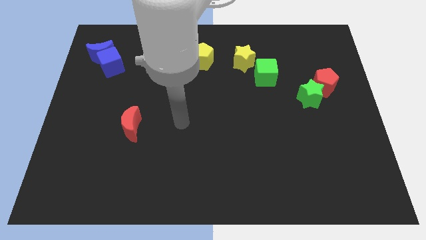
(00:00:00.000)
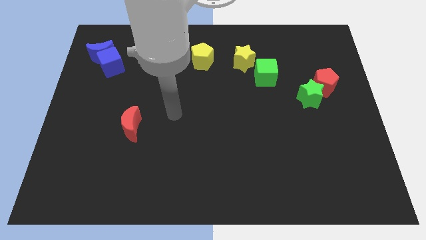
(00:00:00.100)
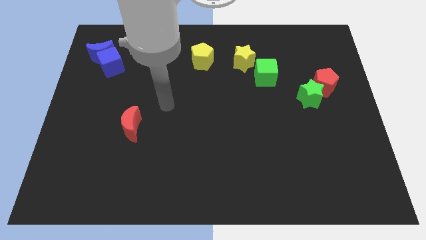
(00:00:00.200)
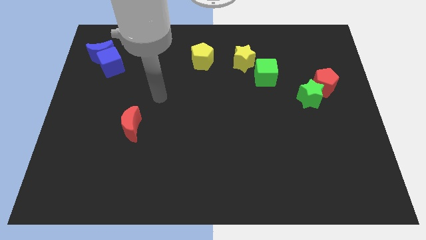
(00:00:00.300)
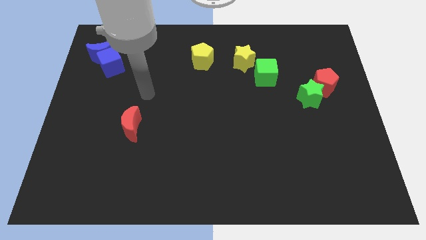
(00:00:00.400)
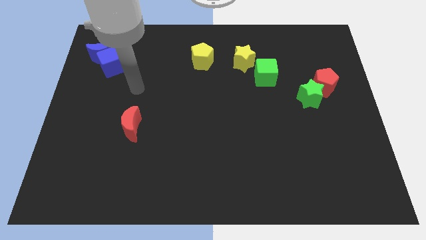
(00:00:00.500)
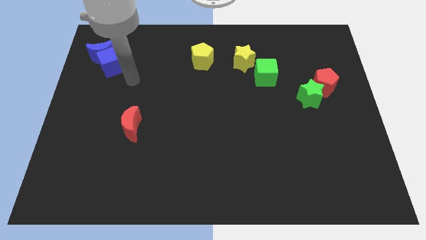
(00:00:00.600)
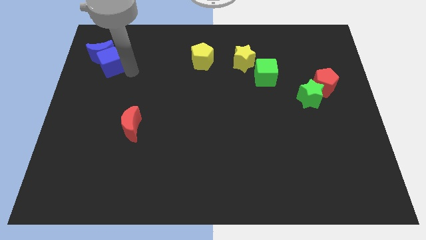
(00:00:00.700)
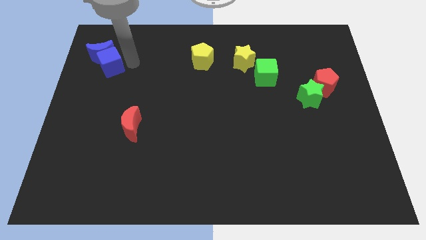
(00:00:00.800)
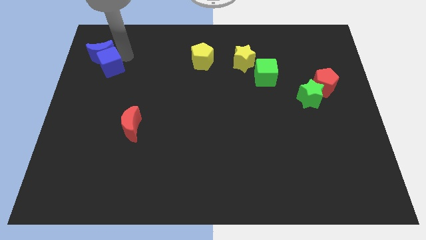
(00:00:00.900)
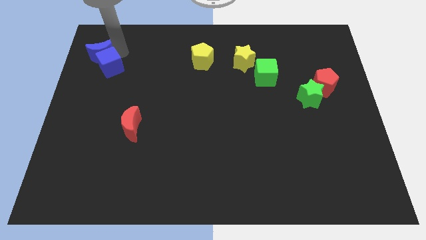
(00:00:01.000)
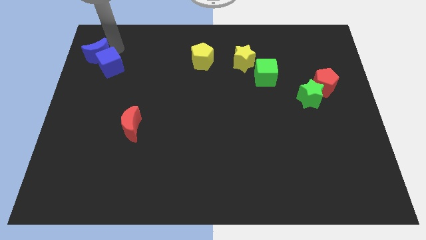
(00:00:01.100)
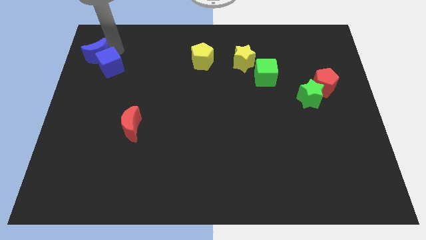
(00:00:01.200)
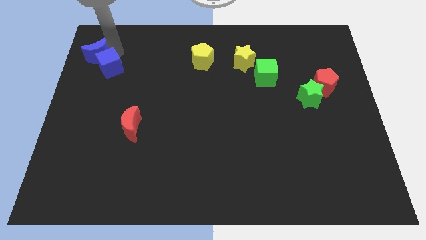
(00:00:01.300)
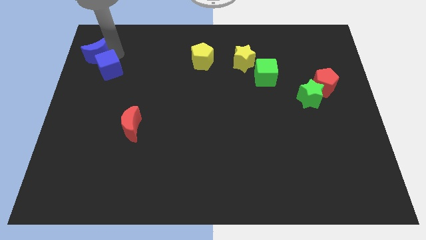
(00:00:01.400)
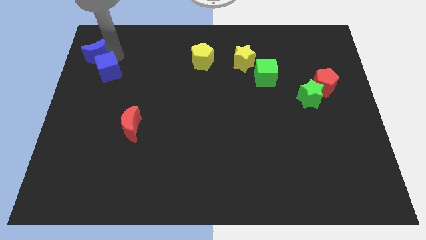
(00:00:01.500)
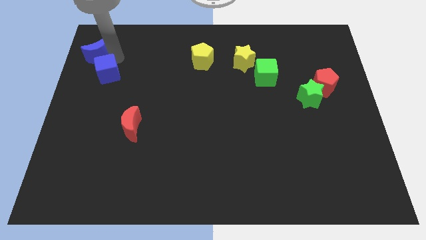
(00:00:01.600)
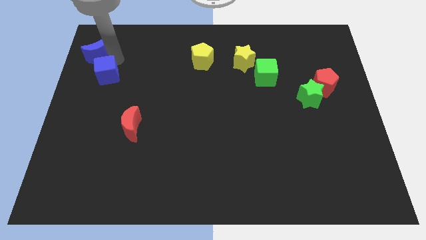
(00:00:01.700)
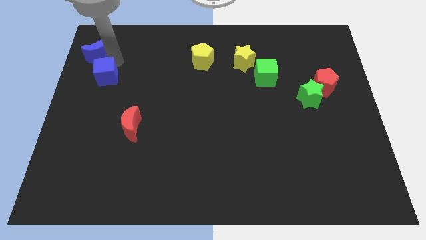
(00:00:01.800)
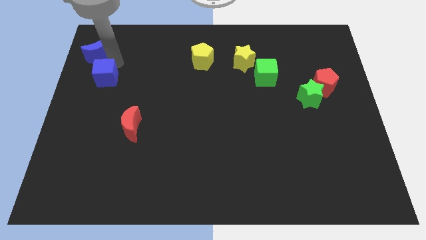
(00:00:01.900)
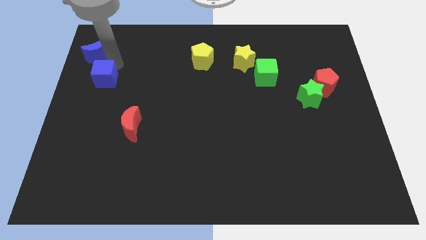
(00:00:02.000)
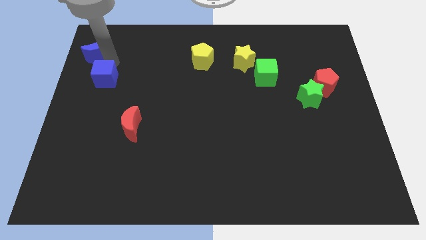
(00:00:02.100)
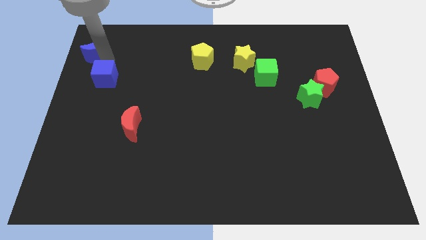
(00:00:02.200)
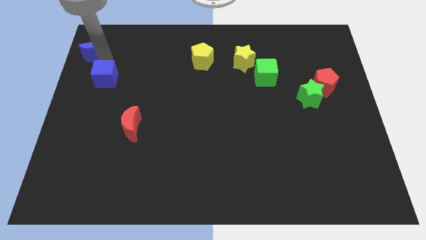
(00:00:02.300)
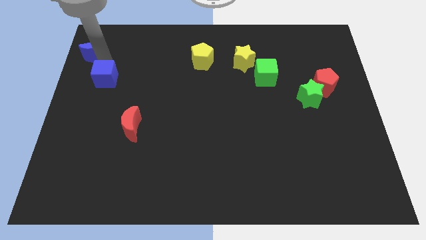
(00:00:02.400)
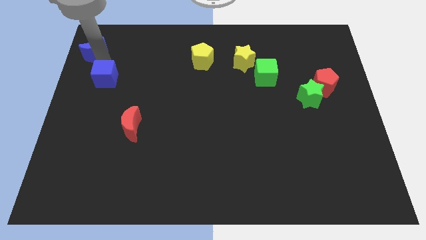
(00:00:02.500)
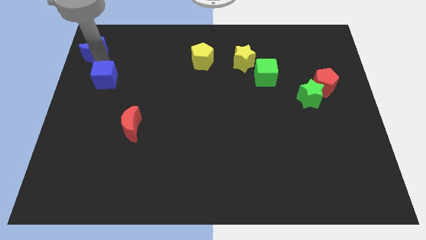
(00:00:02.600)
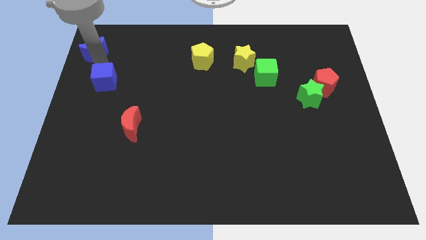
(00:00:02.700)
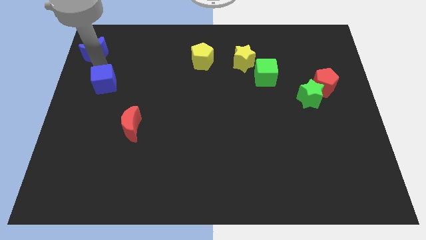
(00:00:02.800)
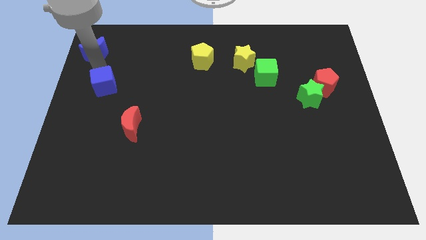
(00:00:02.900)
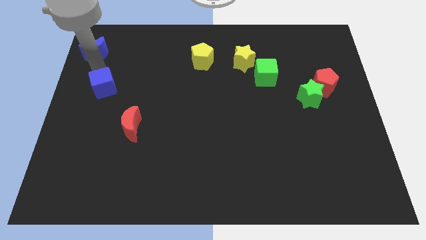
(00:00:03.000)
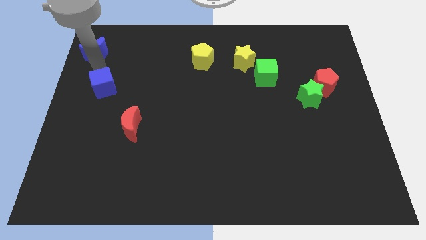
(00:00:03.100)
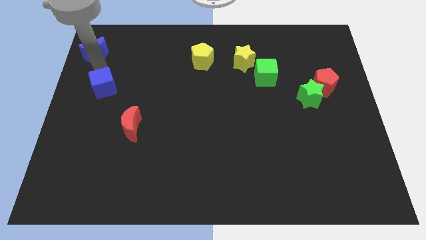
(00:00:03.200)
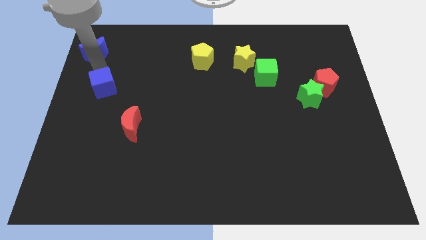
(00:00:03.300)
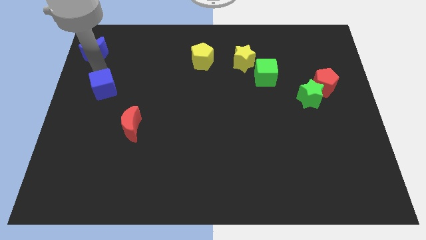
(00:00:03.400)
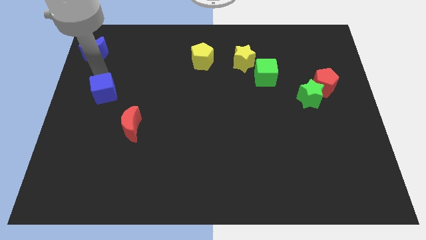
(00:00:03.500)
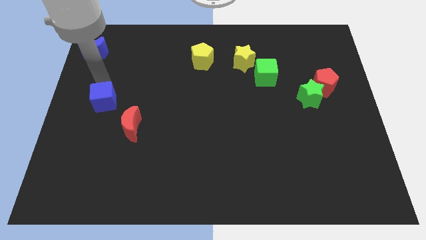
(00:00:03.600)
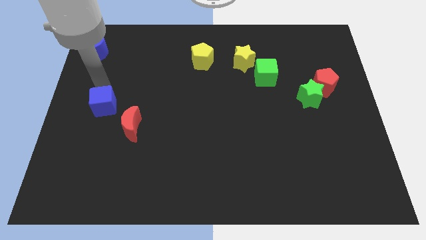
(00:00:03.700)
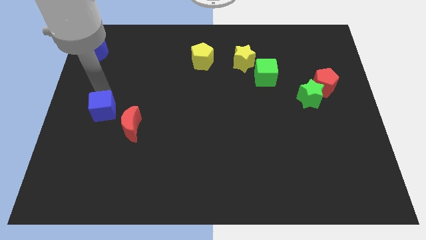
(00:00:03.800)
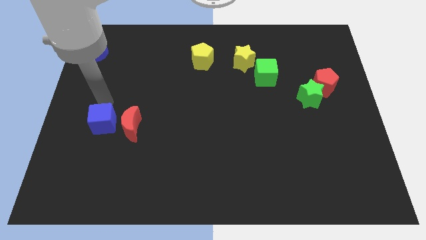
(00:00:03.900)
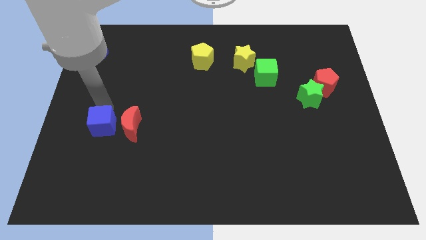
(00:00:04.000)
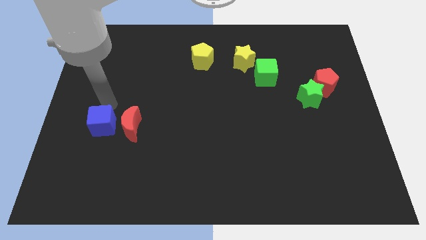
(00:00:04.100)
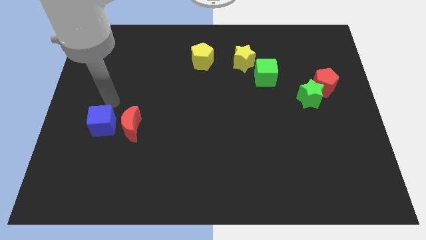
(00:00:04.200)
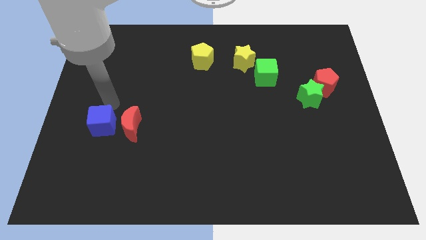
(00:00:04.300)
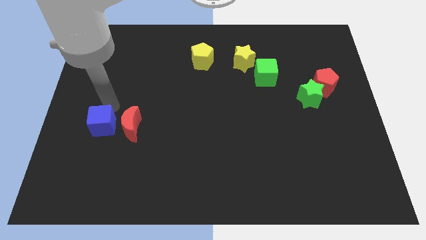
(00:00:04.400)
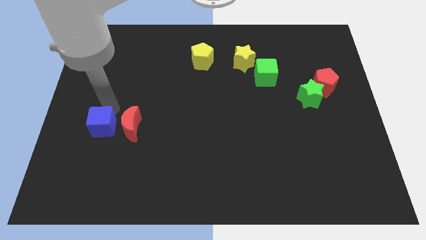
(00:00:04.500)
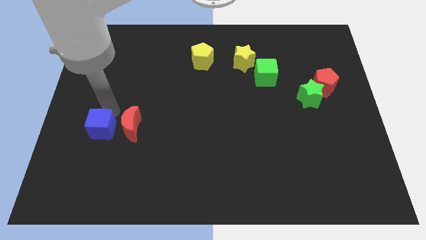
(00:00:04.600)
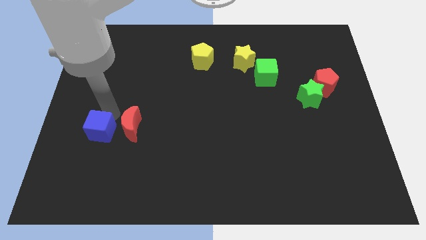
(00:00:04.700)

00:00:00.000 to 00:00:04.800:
push the blue cube down

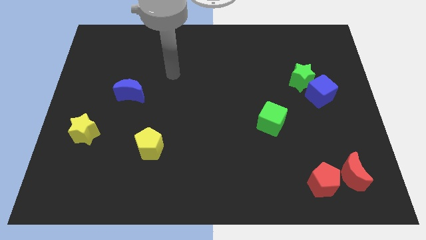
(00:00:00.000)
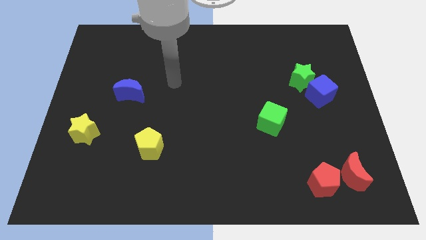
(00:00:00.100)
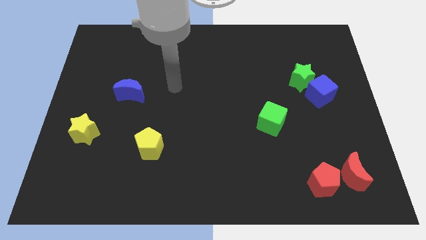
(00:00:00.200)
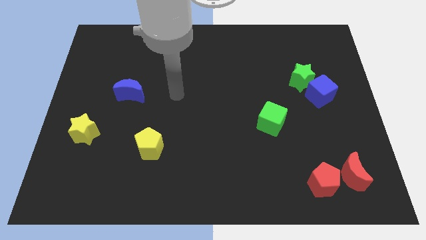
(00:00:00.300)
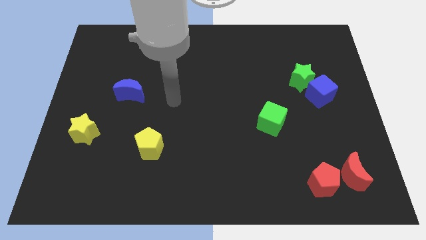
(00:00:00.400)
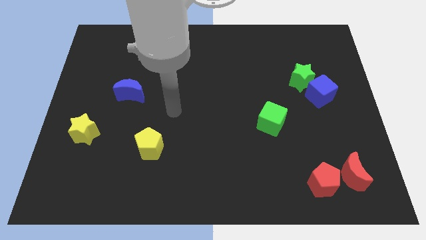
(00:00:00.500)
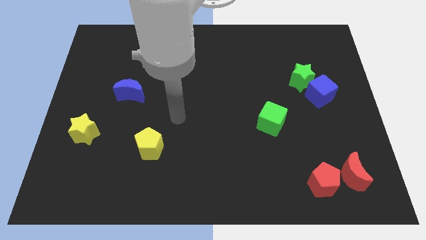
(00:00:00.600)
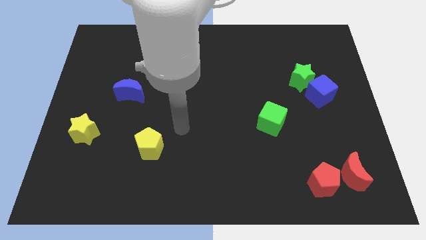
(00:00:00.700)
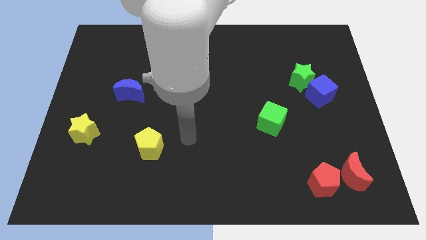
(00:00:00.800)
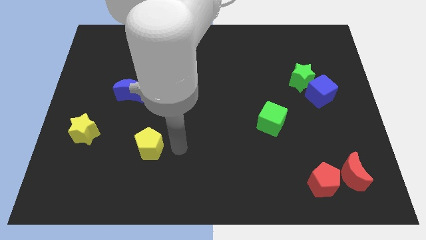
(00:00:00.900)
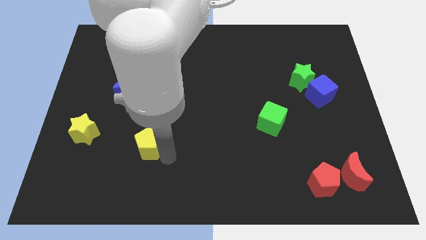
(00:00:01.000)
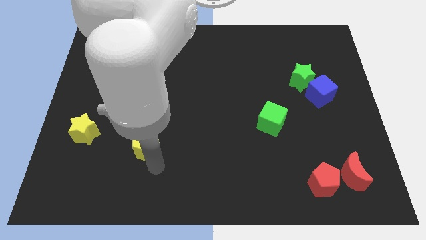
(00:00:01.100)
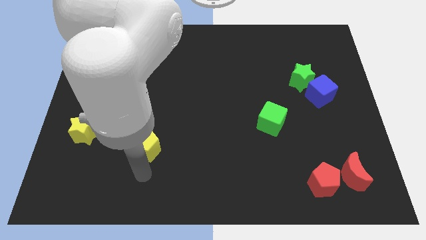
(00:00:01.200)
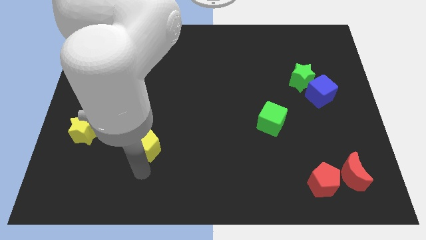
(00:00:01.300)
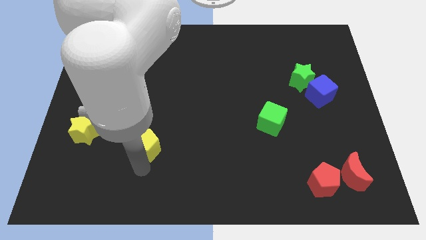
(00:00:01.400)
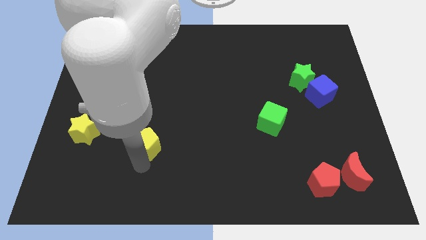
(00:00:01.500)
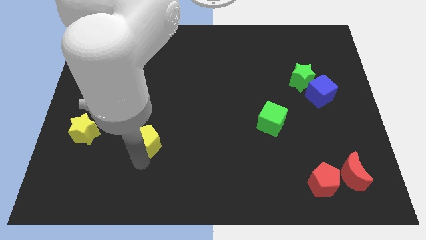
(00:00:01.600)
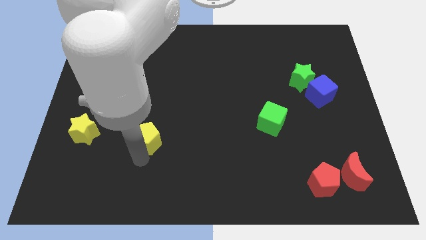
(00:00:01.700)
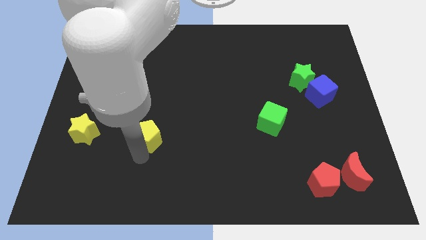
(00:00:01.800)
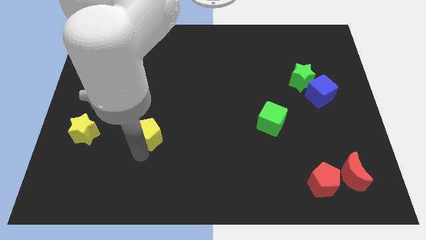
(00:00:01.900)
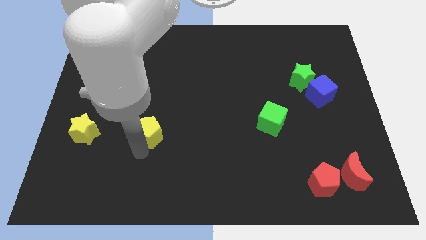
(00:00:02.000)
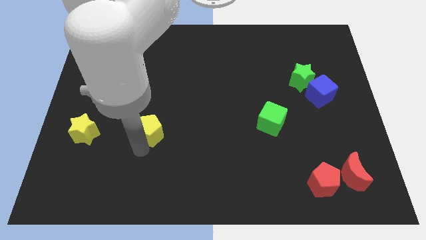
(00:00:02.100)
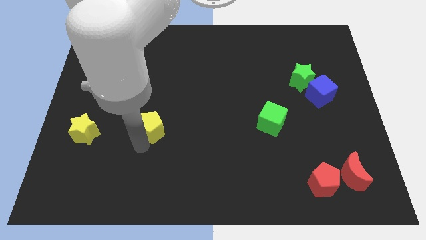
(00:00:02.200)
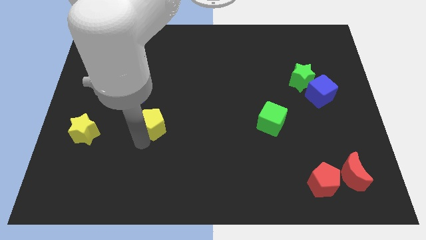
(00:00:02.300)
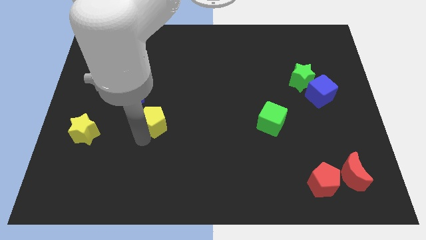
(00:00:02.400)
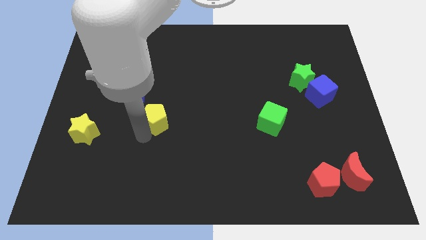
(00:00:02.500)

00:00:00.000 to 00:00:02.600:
move the yellow pentagon a bit up

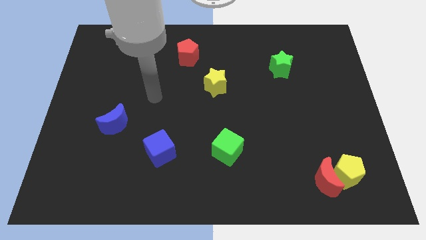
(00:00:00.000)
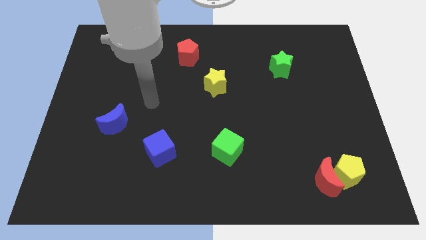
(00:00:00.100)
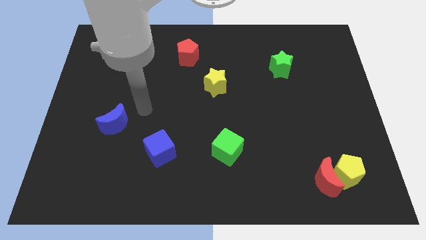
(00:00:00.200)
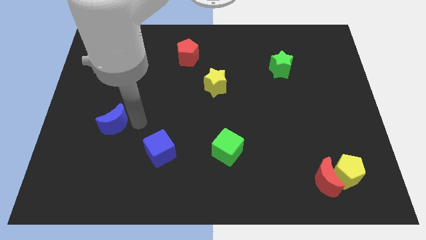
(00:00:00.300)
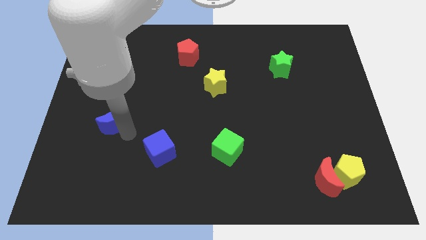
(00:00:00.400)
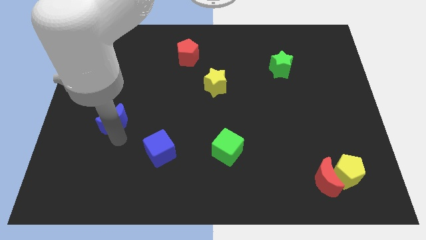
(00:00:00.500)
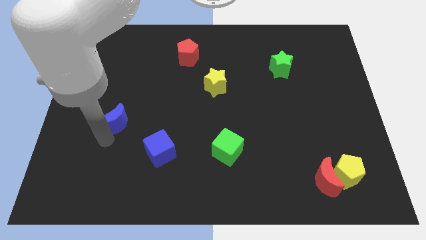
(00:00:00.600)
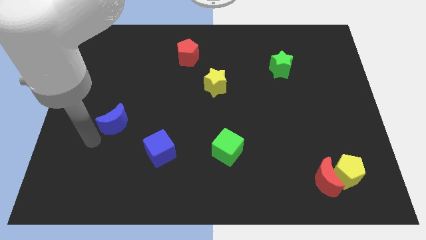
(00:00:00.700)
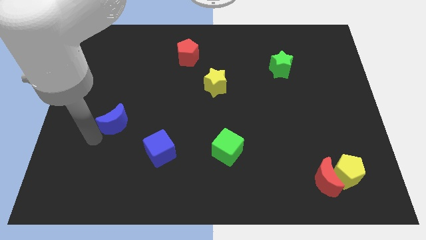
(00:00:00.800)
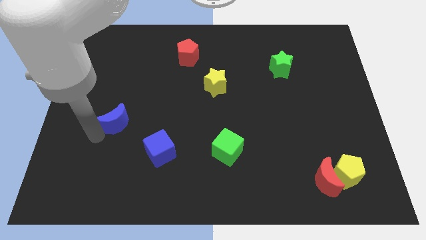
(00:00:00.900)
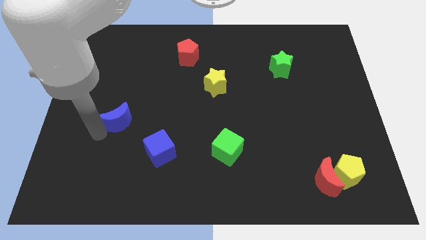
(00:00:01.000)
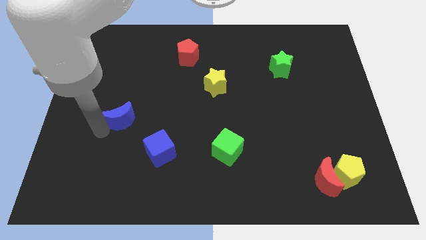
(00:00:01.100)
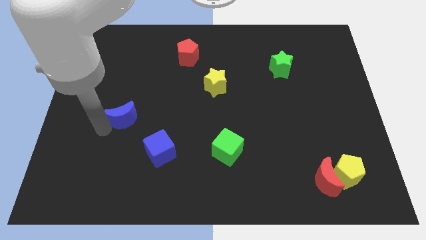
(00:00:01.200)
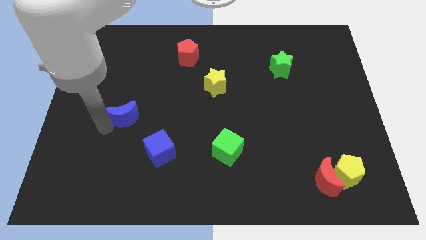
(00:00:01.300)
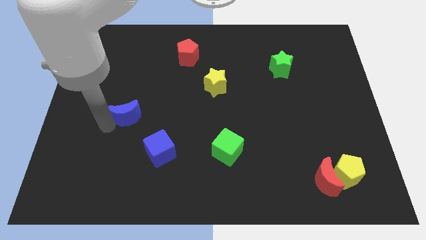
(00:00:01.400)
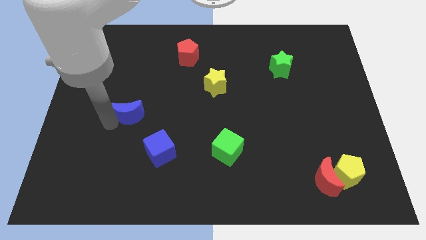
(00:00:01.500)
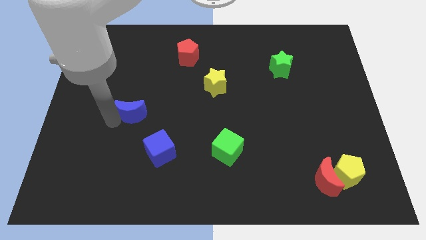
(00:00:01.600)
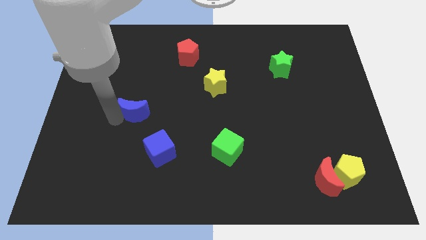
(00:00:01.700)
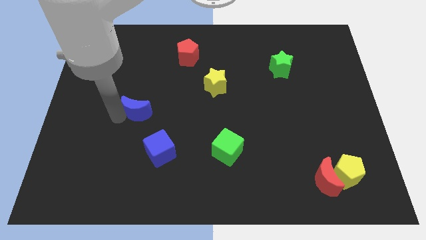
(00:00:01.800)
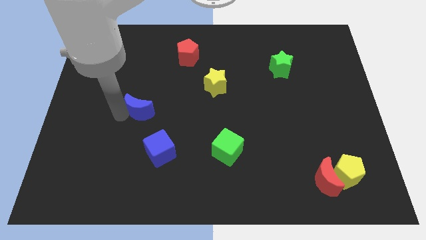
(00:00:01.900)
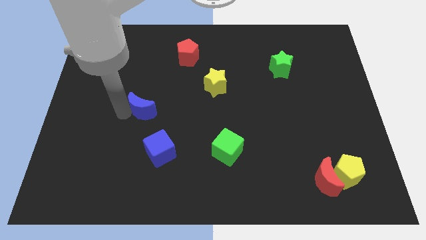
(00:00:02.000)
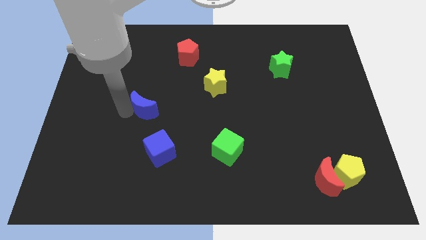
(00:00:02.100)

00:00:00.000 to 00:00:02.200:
push the blue moon up and then to the right a little bit
